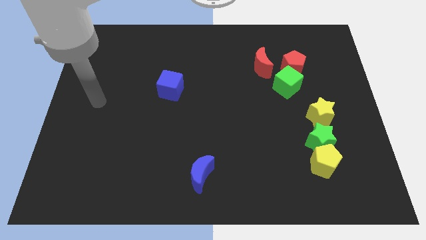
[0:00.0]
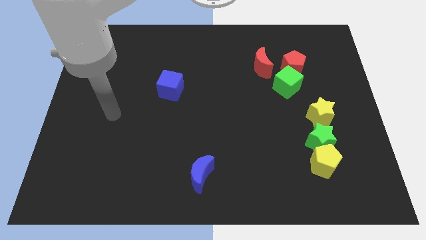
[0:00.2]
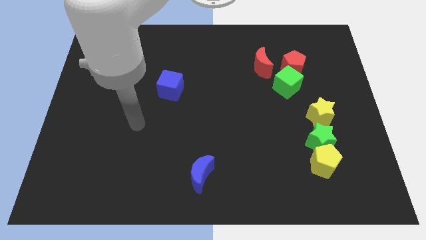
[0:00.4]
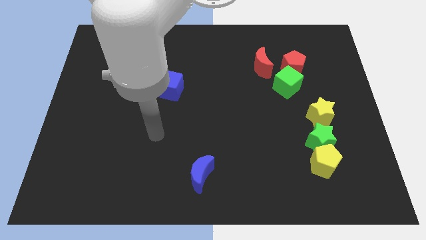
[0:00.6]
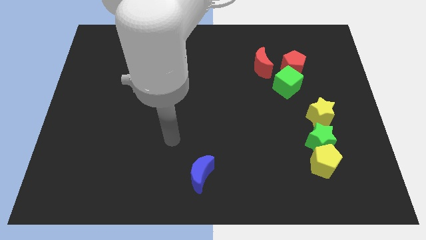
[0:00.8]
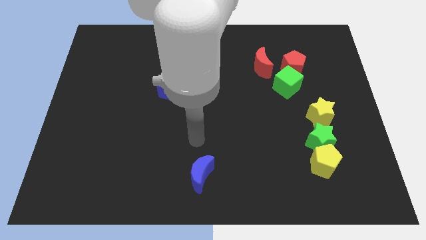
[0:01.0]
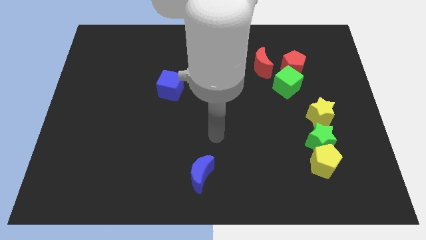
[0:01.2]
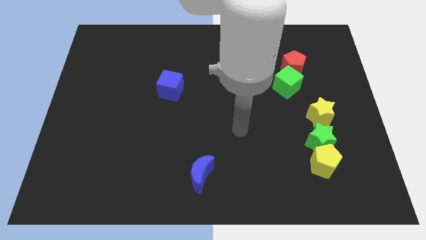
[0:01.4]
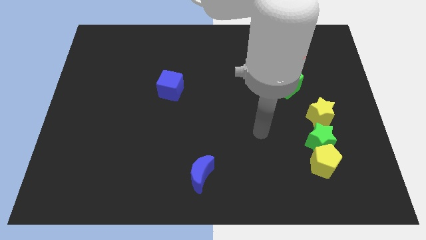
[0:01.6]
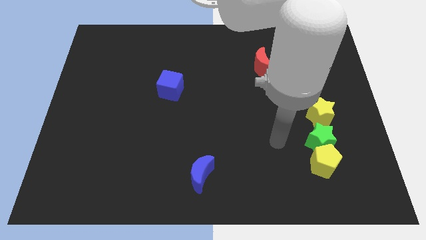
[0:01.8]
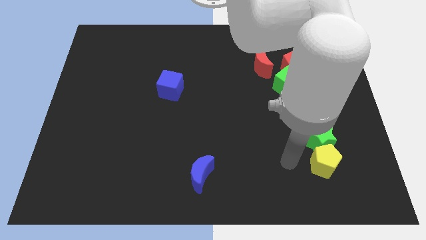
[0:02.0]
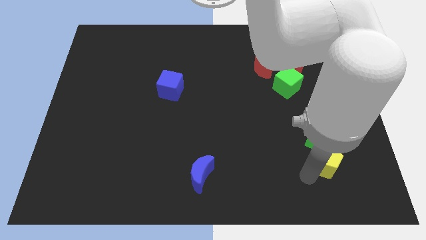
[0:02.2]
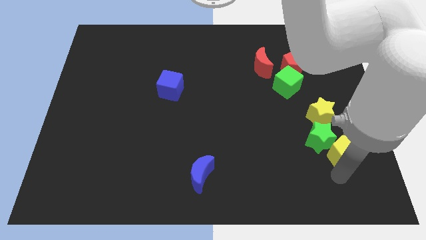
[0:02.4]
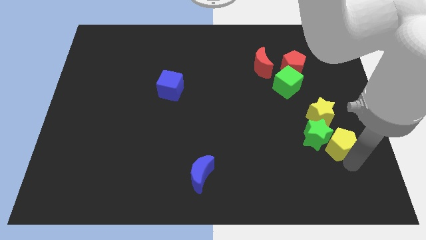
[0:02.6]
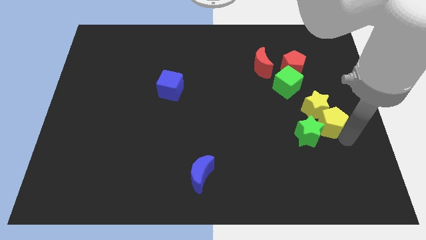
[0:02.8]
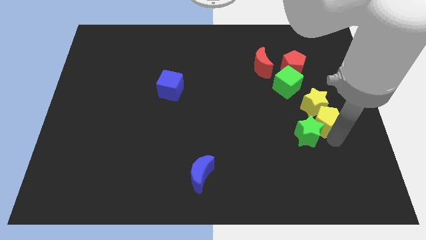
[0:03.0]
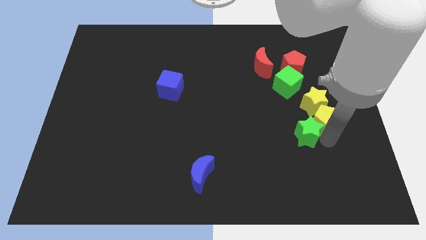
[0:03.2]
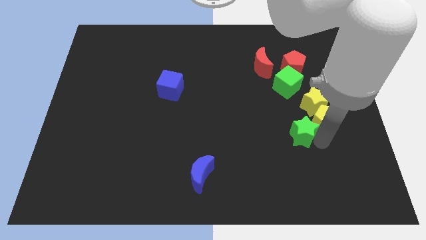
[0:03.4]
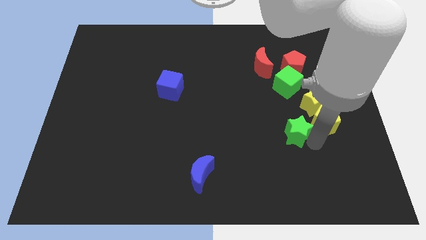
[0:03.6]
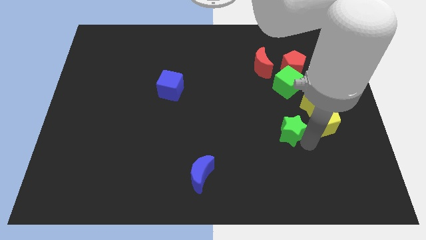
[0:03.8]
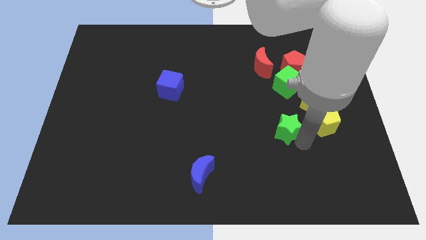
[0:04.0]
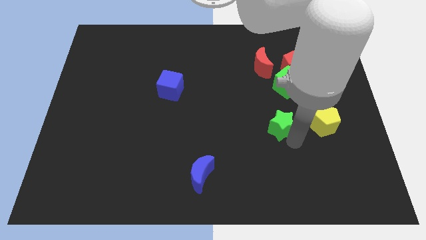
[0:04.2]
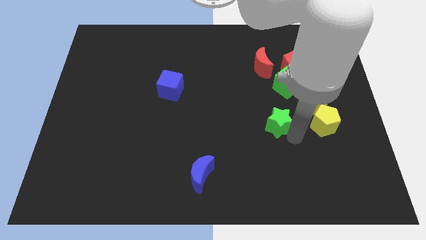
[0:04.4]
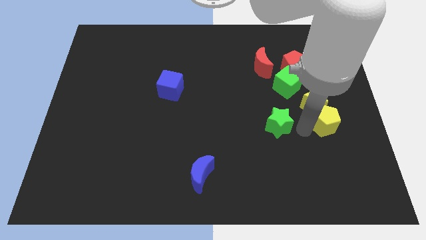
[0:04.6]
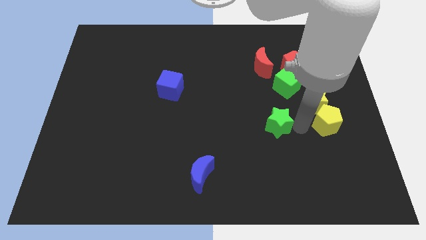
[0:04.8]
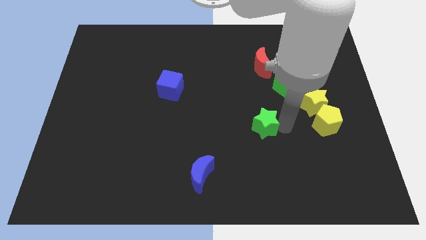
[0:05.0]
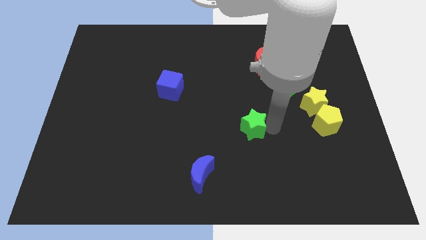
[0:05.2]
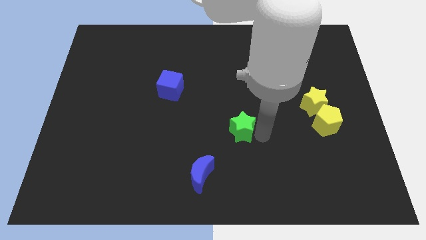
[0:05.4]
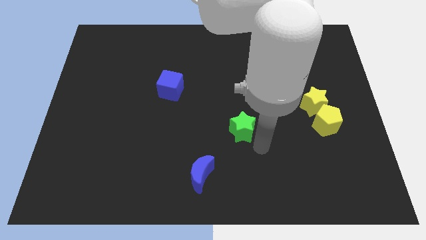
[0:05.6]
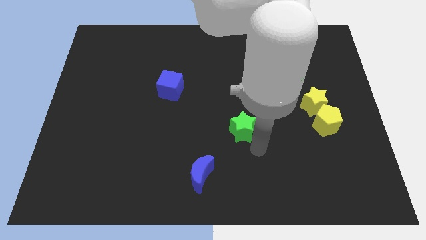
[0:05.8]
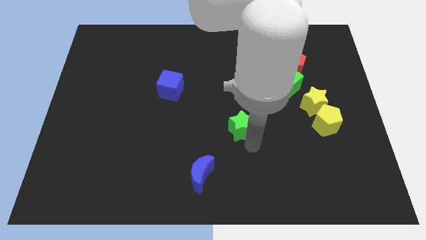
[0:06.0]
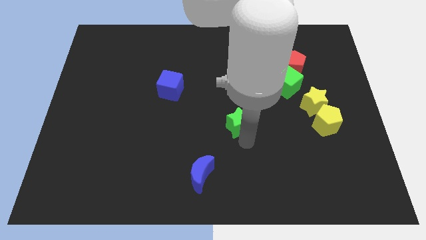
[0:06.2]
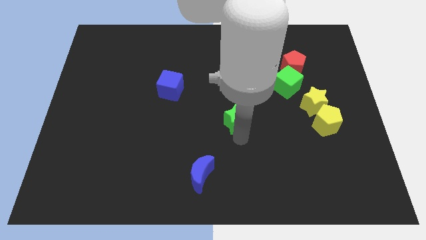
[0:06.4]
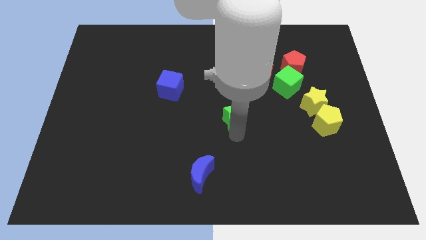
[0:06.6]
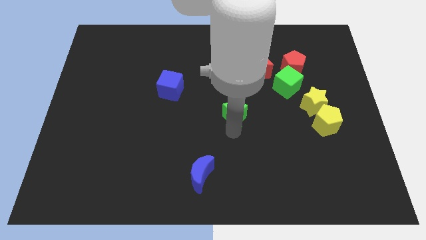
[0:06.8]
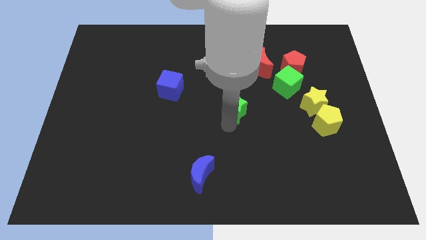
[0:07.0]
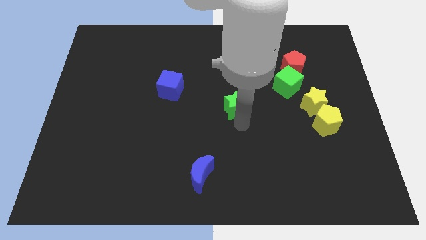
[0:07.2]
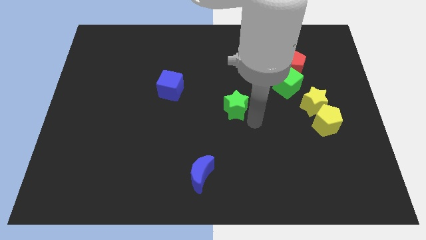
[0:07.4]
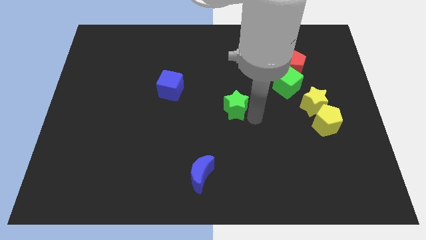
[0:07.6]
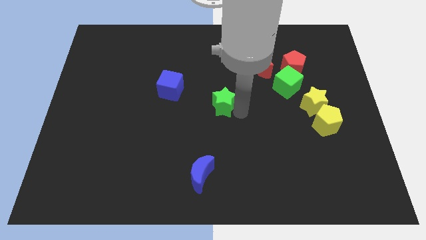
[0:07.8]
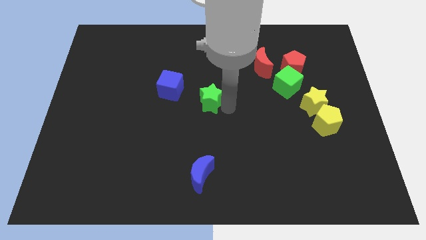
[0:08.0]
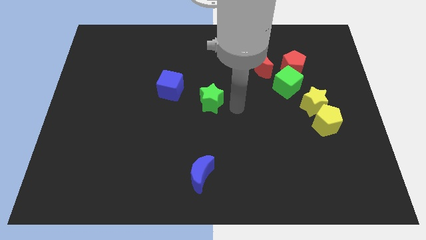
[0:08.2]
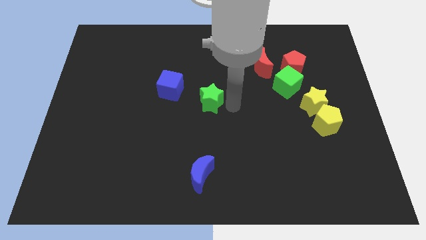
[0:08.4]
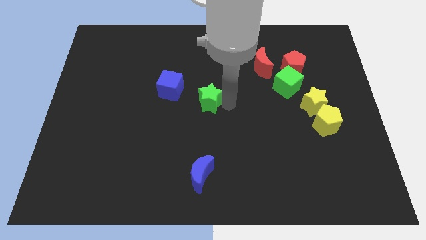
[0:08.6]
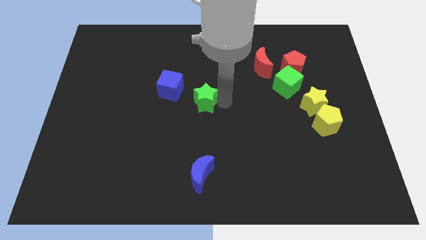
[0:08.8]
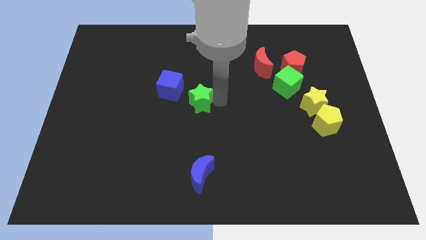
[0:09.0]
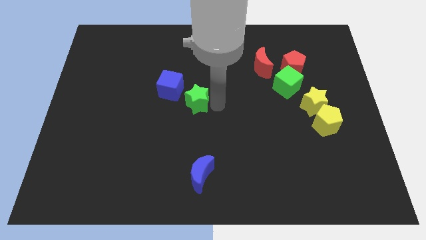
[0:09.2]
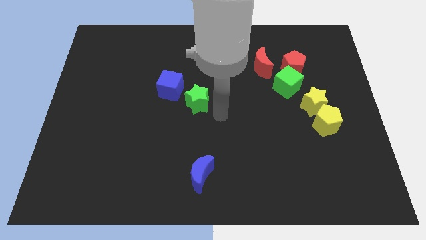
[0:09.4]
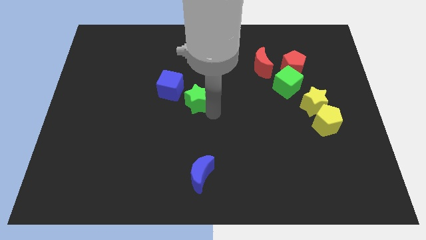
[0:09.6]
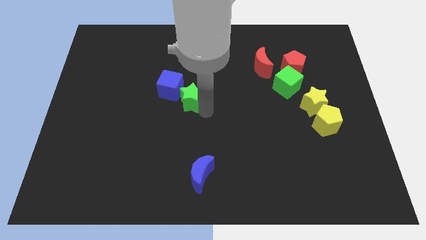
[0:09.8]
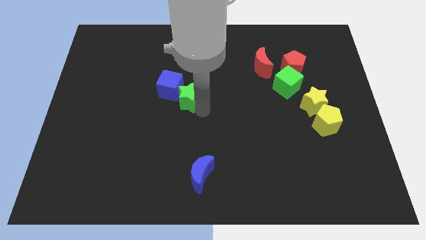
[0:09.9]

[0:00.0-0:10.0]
put the green star to the blue cube

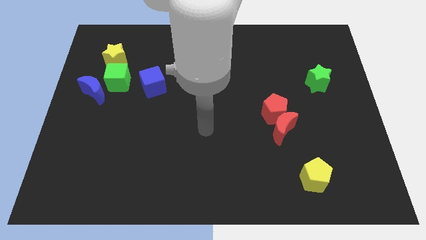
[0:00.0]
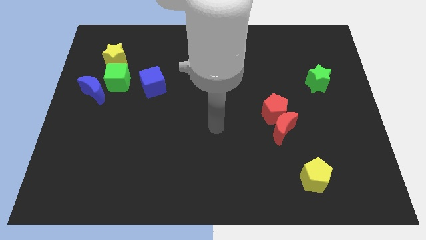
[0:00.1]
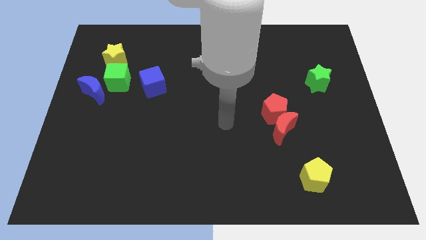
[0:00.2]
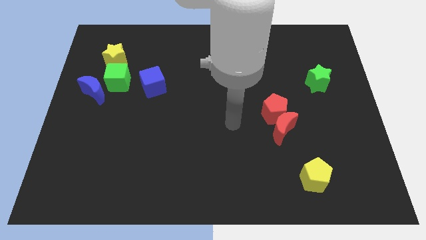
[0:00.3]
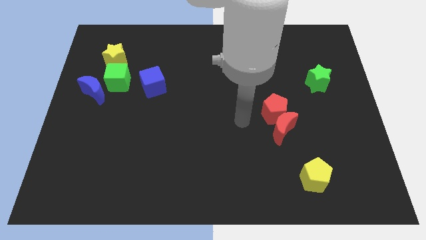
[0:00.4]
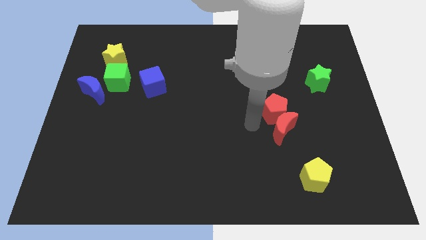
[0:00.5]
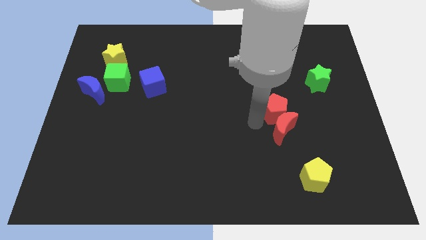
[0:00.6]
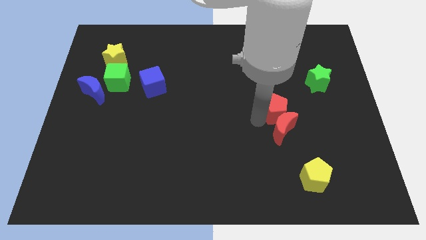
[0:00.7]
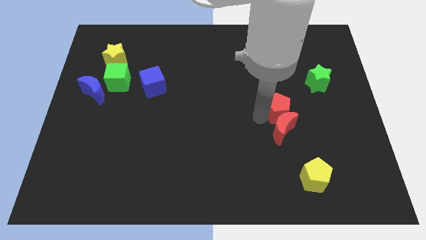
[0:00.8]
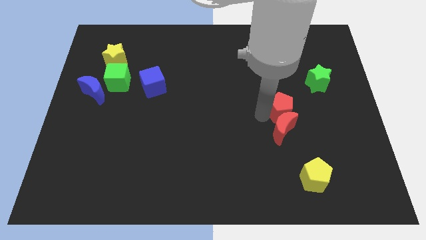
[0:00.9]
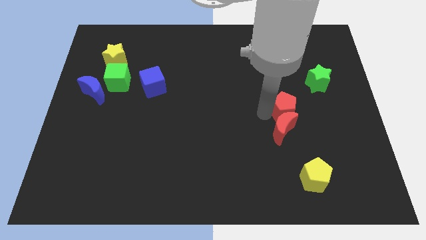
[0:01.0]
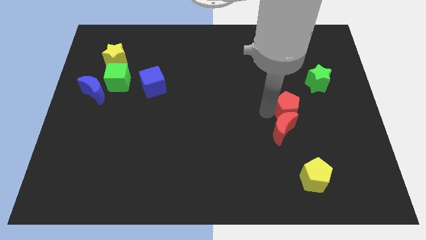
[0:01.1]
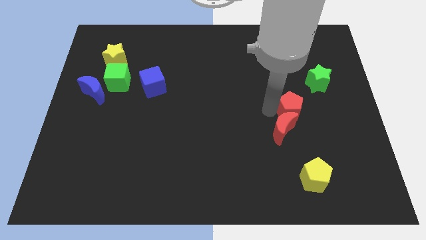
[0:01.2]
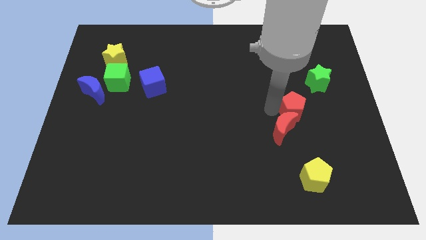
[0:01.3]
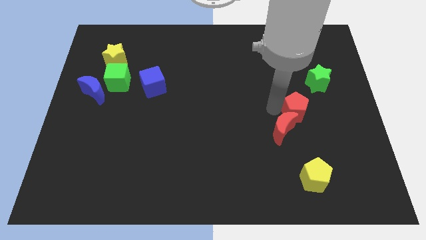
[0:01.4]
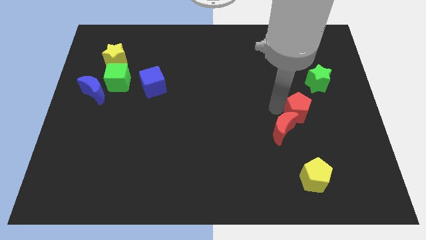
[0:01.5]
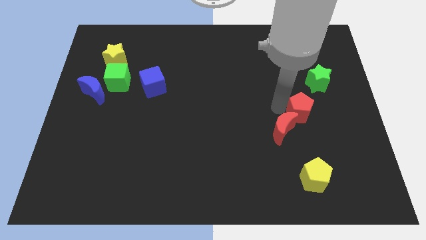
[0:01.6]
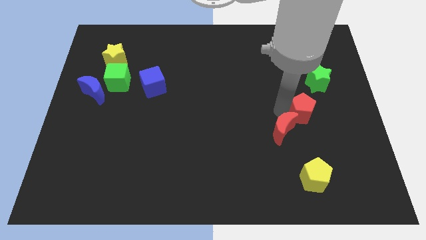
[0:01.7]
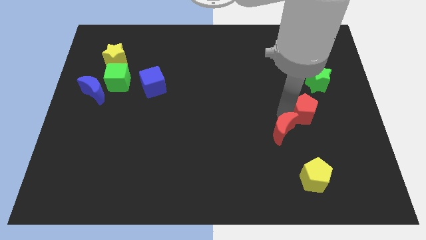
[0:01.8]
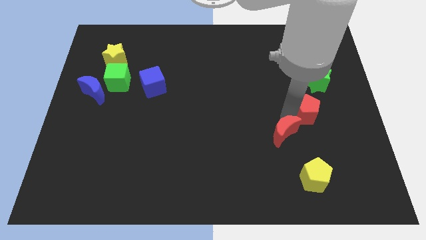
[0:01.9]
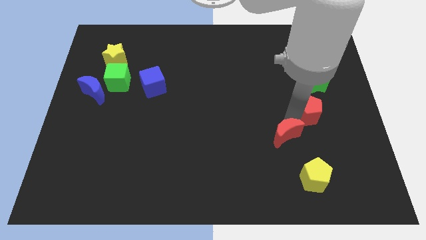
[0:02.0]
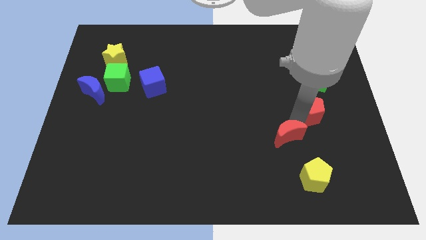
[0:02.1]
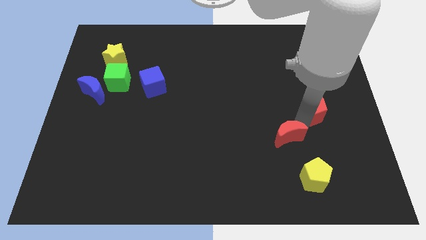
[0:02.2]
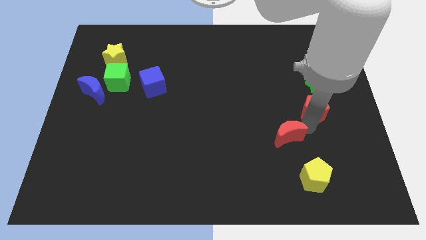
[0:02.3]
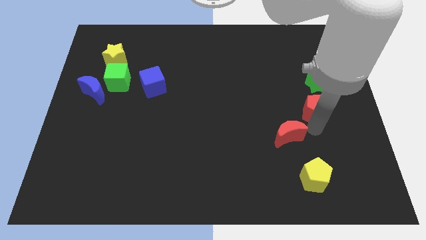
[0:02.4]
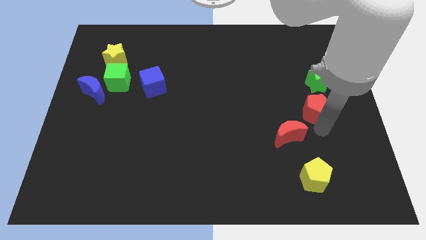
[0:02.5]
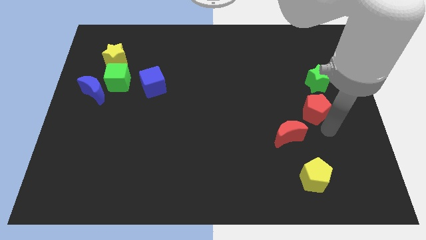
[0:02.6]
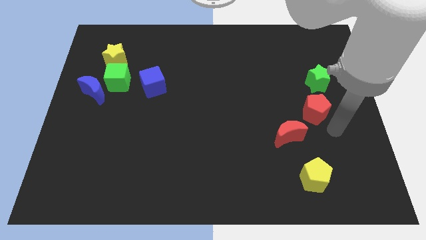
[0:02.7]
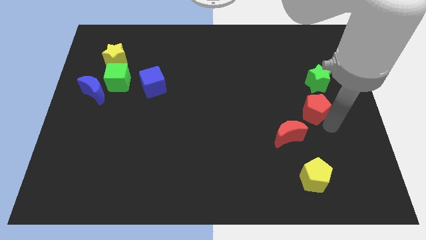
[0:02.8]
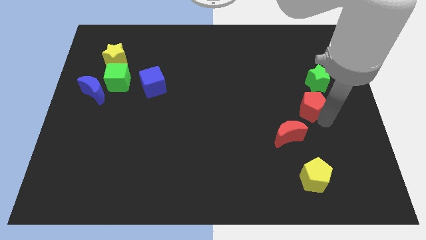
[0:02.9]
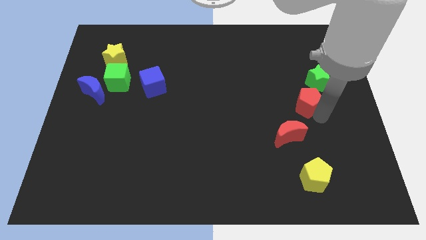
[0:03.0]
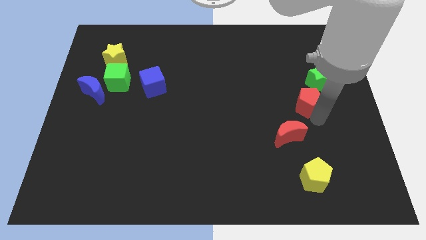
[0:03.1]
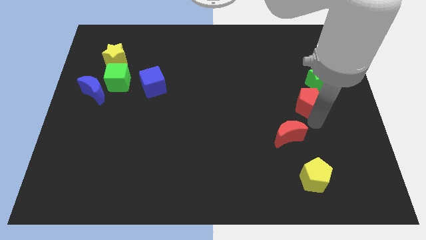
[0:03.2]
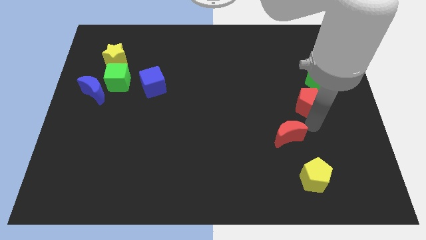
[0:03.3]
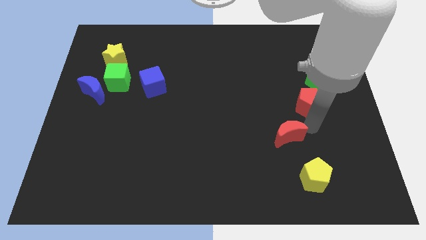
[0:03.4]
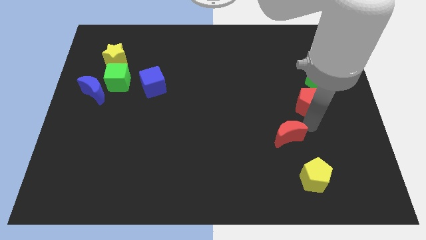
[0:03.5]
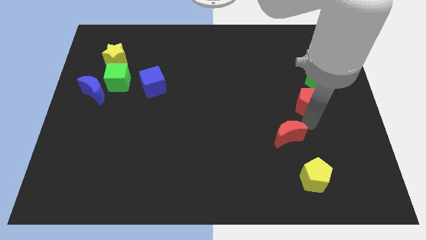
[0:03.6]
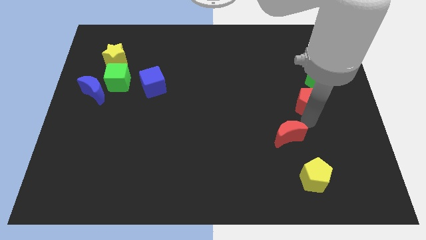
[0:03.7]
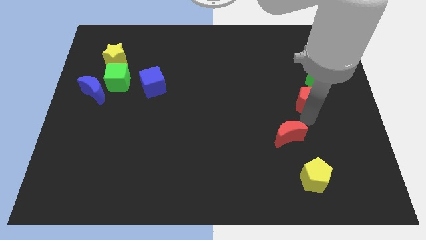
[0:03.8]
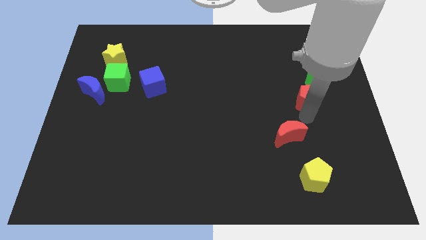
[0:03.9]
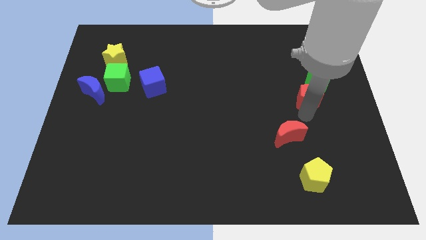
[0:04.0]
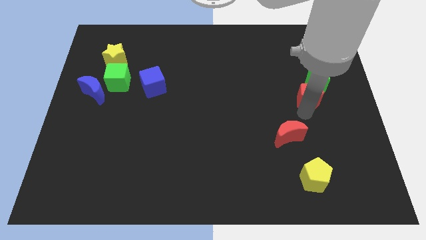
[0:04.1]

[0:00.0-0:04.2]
slide the red pentagon to the green star
